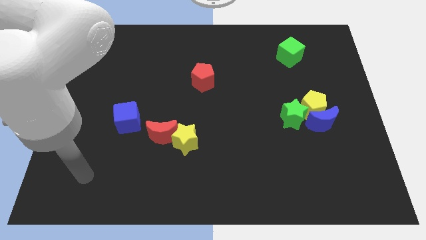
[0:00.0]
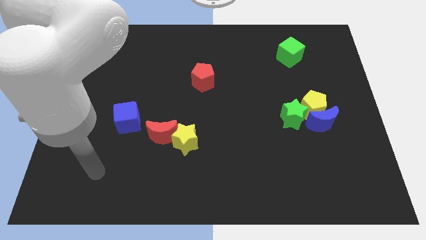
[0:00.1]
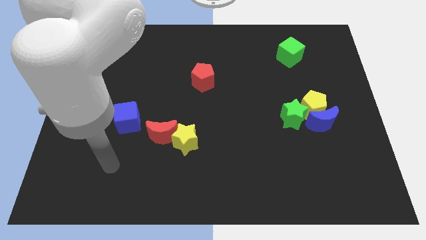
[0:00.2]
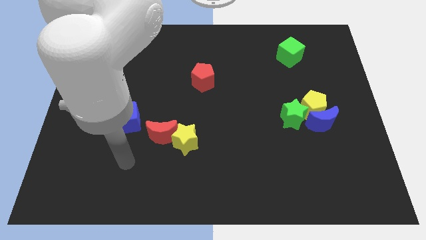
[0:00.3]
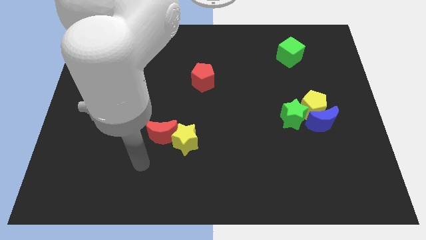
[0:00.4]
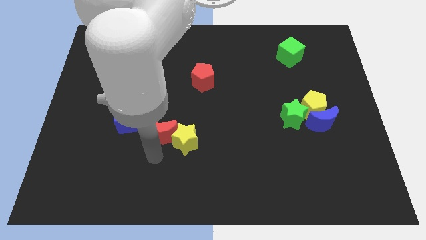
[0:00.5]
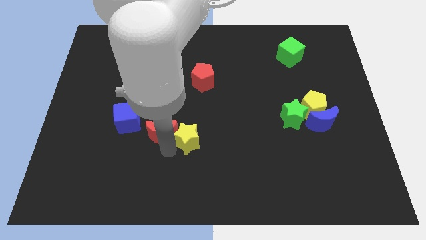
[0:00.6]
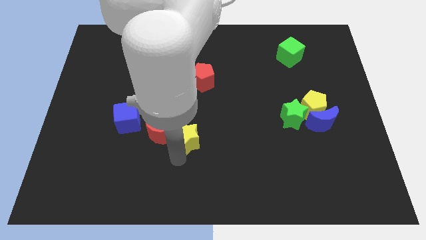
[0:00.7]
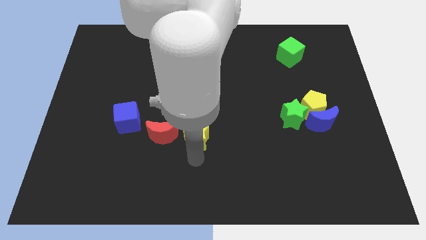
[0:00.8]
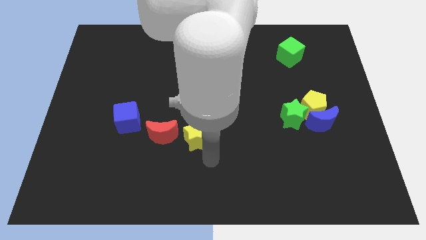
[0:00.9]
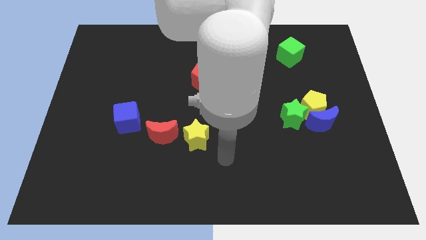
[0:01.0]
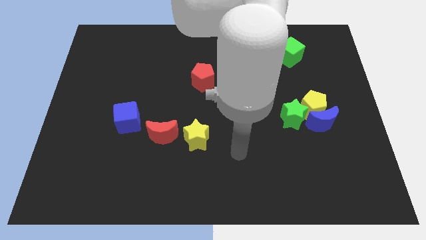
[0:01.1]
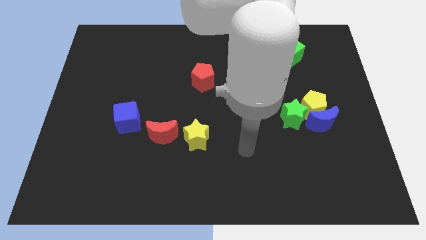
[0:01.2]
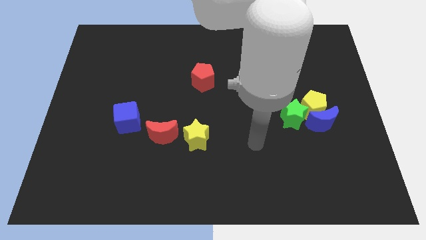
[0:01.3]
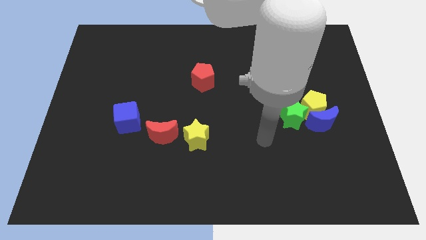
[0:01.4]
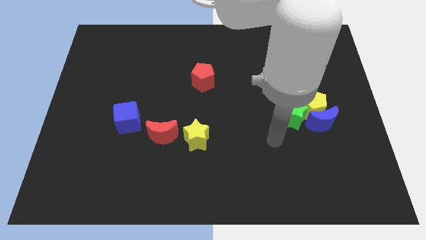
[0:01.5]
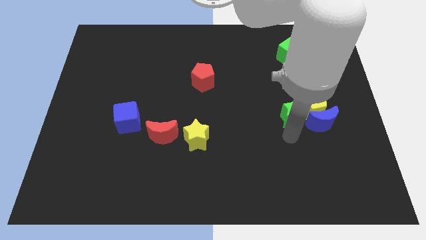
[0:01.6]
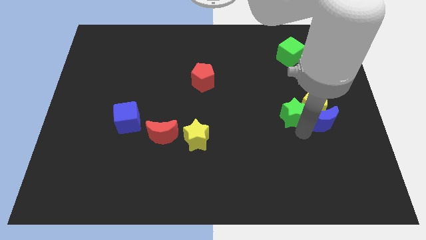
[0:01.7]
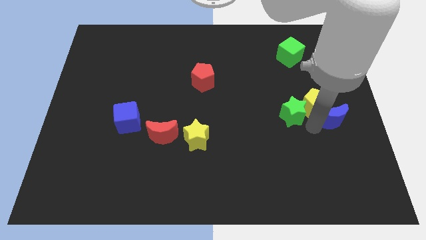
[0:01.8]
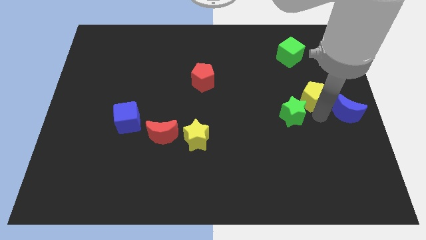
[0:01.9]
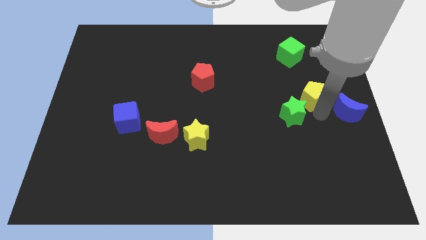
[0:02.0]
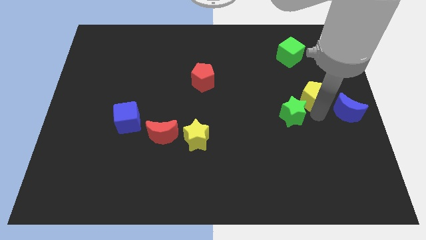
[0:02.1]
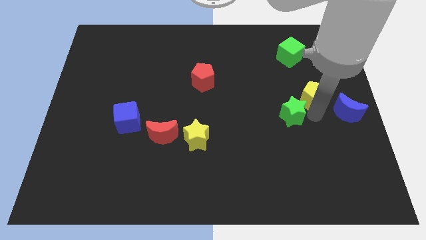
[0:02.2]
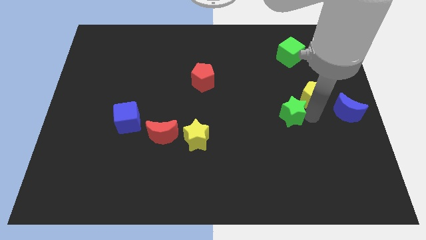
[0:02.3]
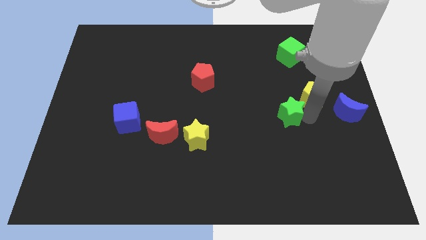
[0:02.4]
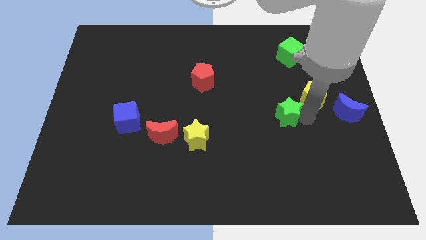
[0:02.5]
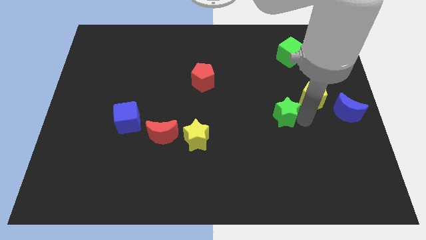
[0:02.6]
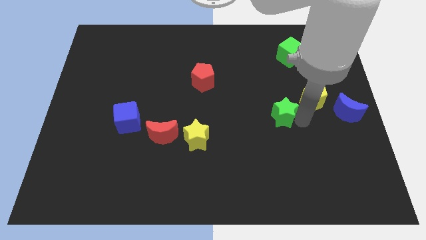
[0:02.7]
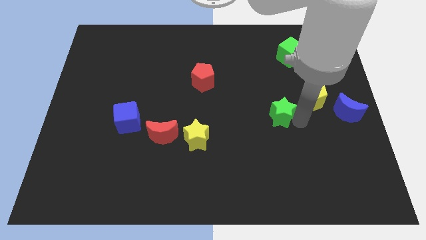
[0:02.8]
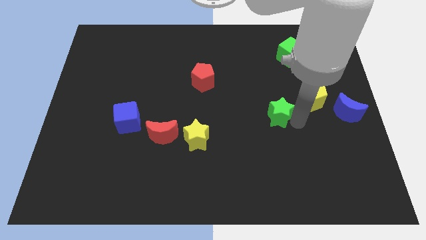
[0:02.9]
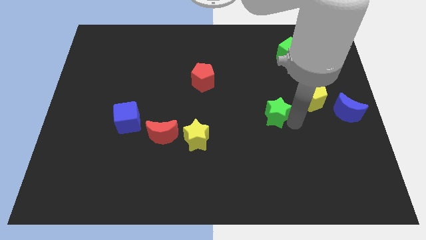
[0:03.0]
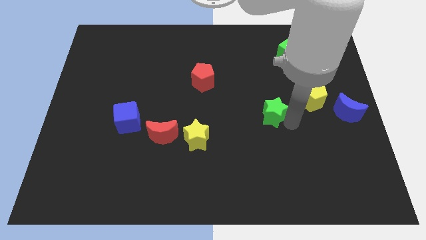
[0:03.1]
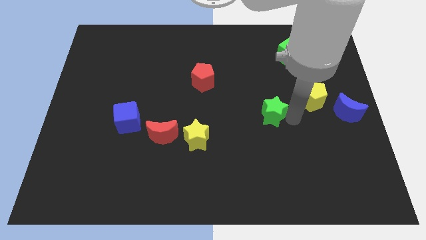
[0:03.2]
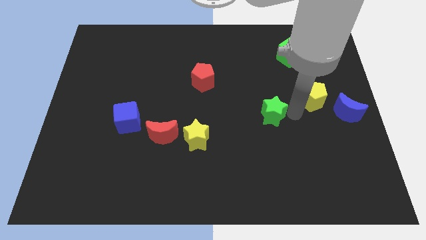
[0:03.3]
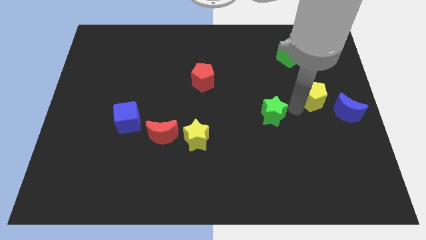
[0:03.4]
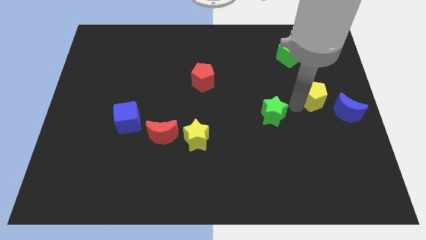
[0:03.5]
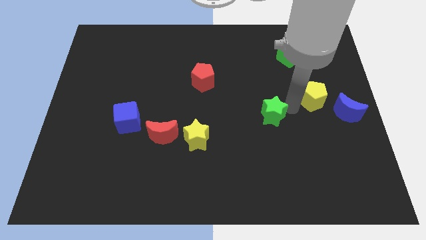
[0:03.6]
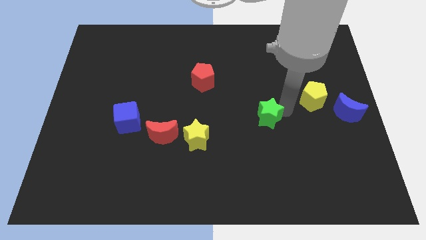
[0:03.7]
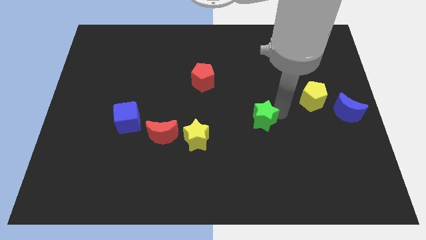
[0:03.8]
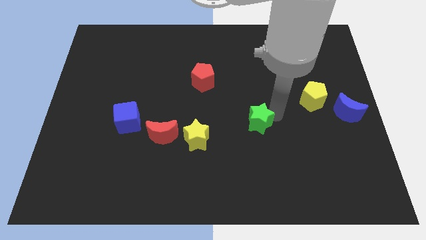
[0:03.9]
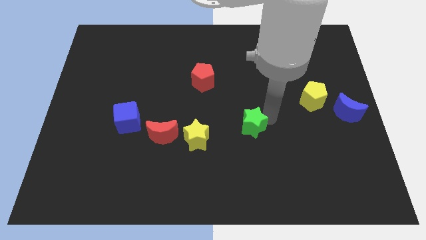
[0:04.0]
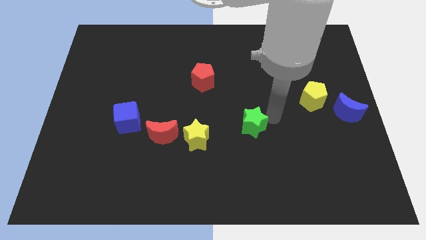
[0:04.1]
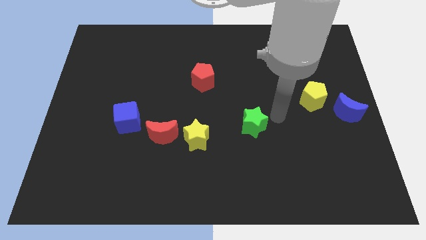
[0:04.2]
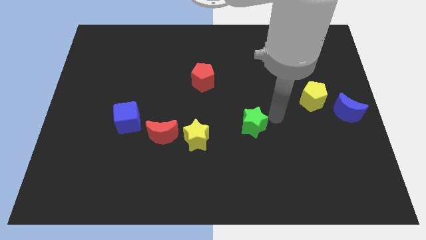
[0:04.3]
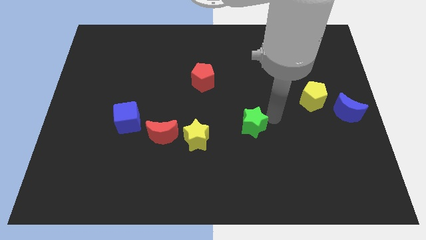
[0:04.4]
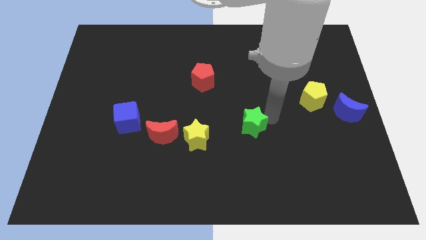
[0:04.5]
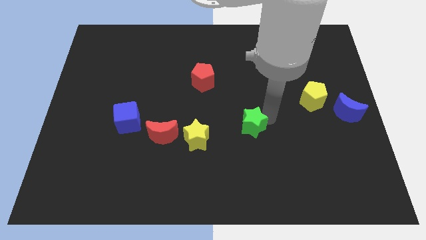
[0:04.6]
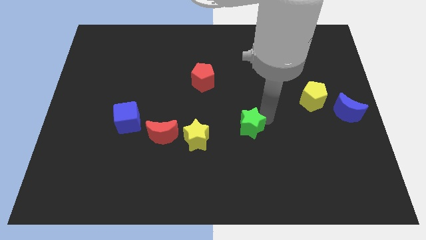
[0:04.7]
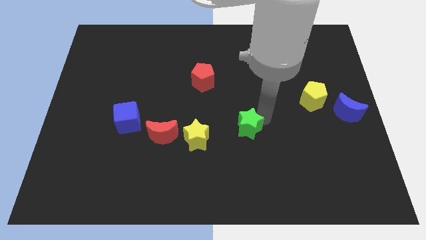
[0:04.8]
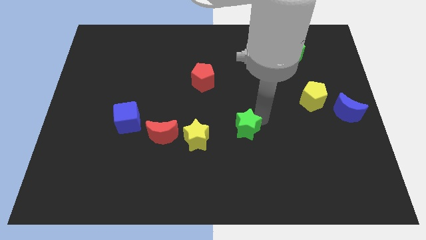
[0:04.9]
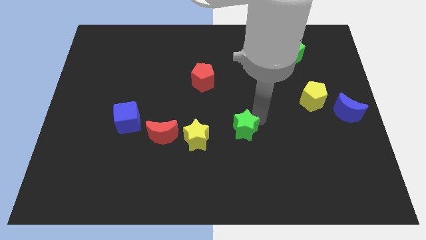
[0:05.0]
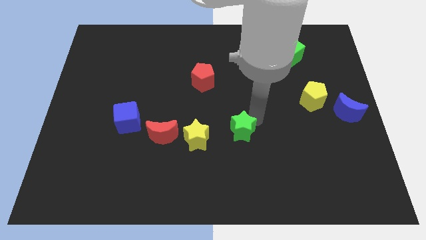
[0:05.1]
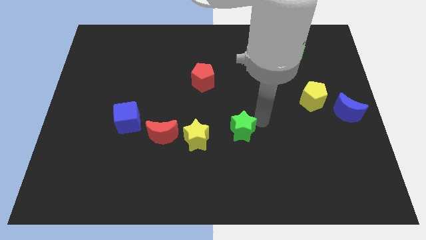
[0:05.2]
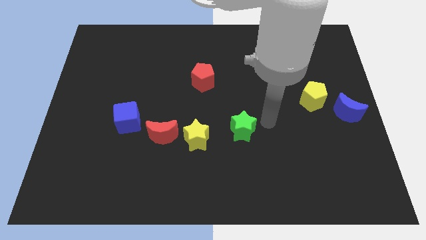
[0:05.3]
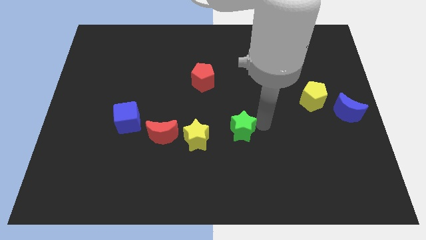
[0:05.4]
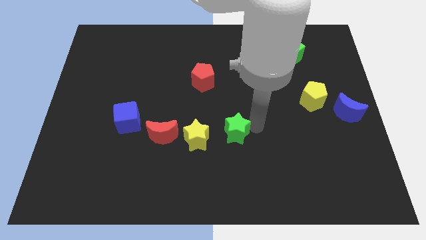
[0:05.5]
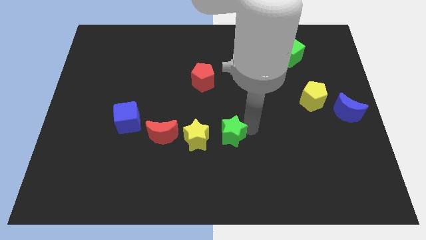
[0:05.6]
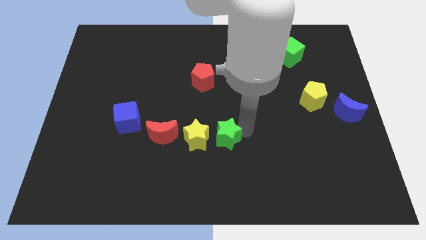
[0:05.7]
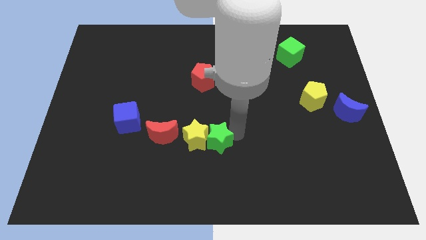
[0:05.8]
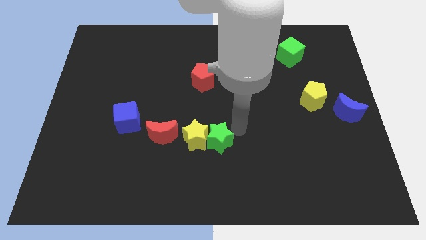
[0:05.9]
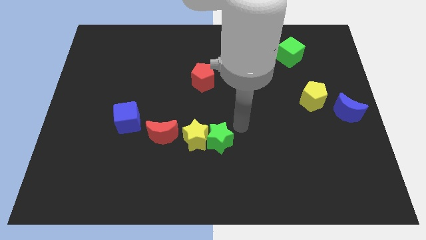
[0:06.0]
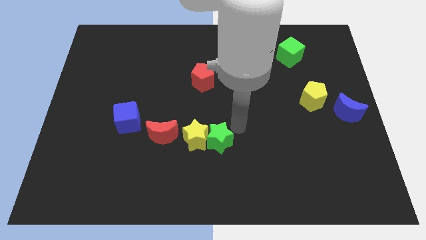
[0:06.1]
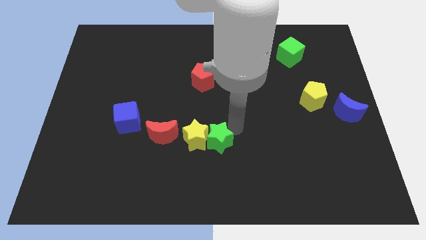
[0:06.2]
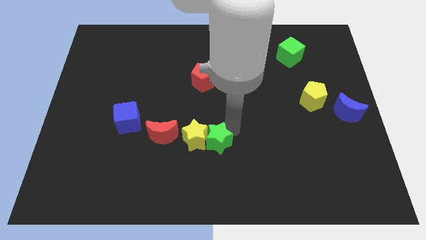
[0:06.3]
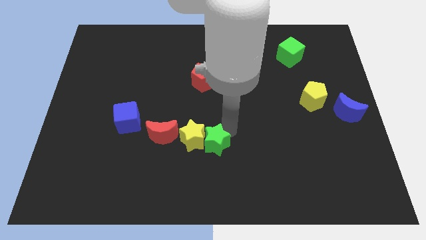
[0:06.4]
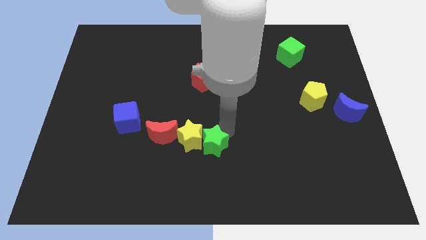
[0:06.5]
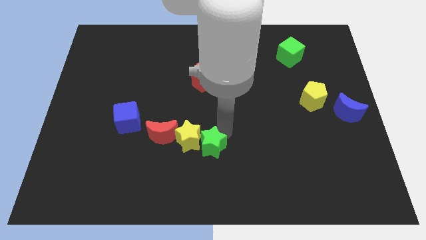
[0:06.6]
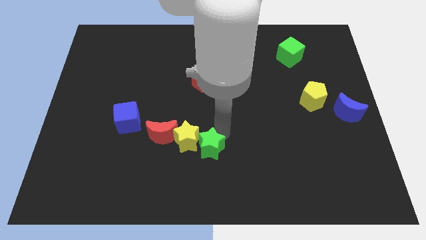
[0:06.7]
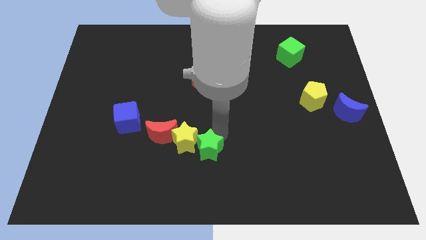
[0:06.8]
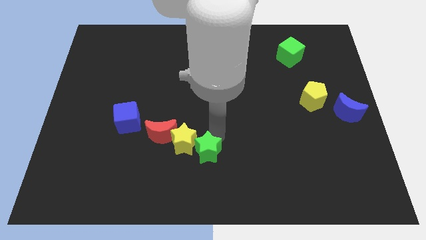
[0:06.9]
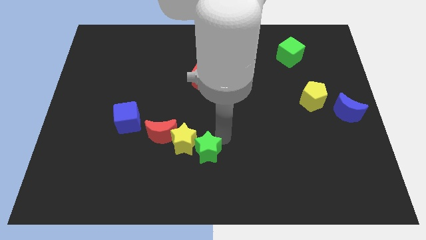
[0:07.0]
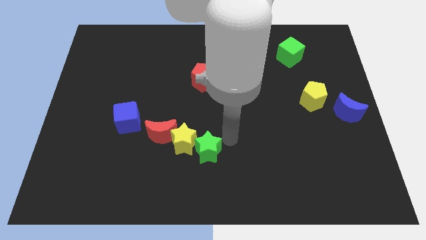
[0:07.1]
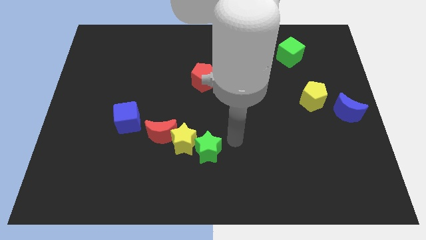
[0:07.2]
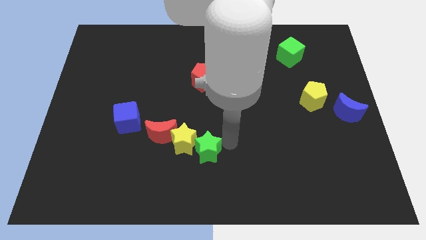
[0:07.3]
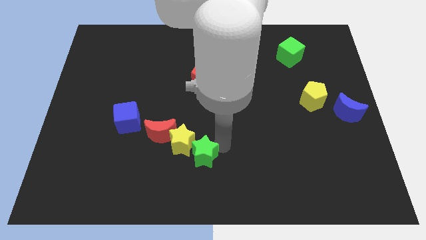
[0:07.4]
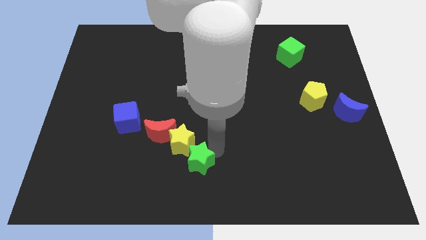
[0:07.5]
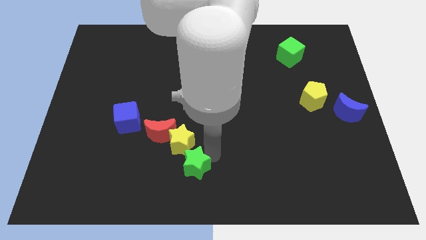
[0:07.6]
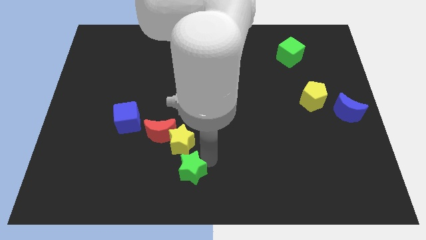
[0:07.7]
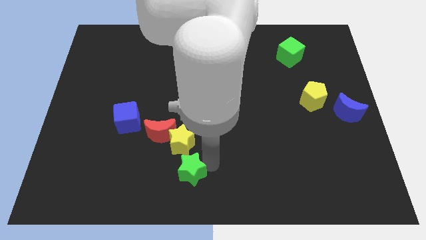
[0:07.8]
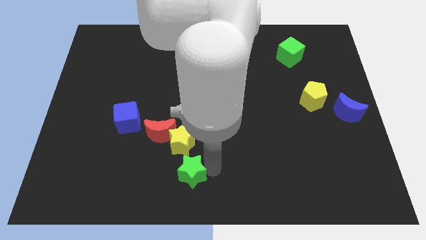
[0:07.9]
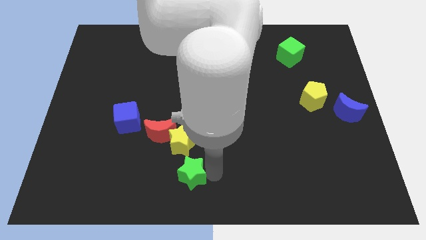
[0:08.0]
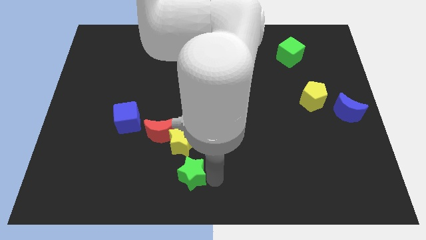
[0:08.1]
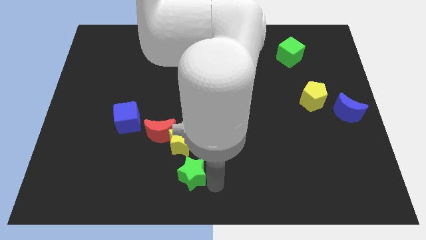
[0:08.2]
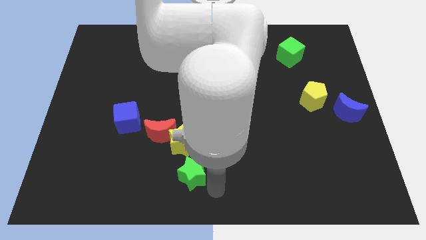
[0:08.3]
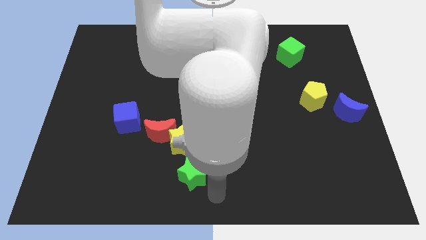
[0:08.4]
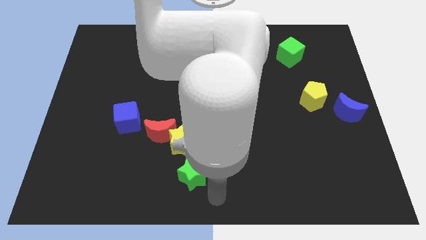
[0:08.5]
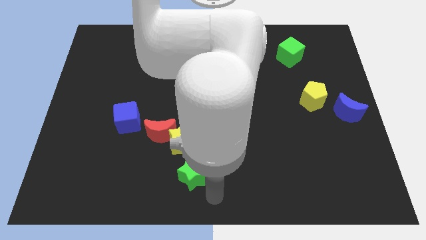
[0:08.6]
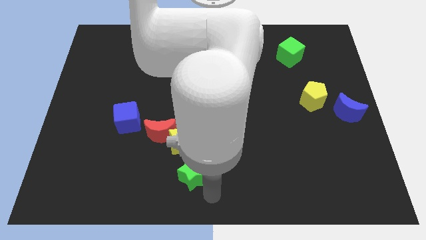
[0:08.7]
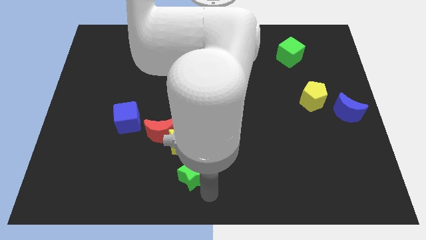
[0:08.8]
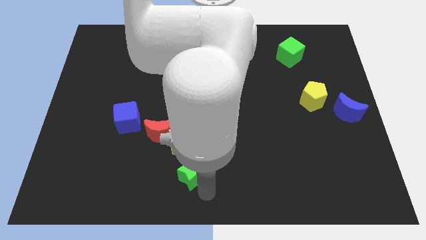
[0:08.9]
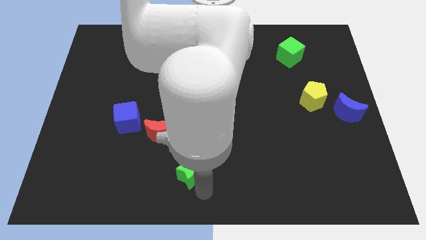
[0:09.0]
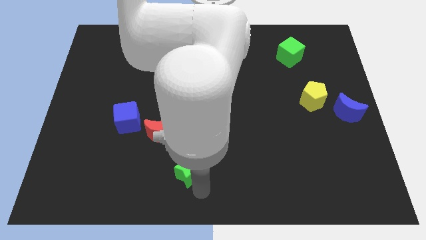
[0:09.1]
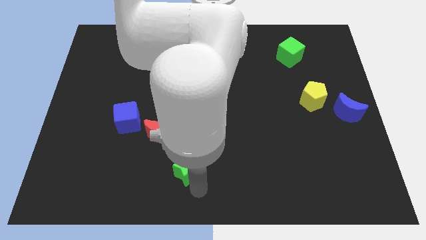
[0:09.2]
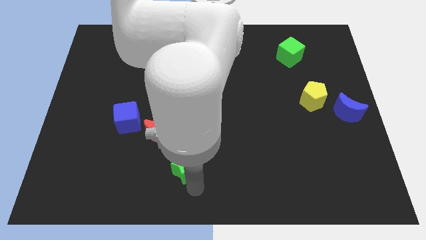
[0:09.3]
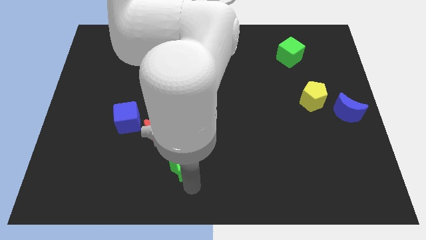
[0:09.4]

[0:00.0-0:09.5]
put the green star to the bottom left side of the yellow star
